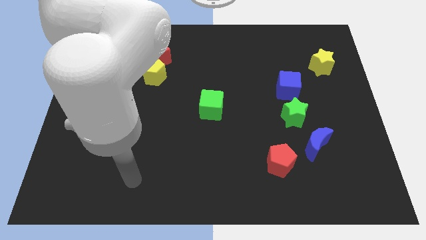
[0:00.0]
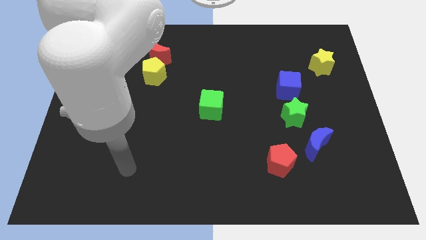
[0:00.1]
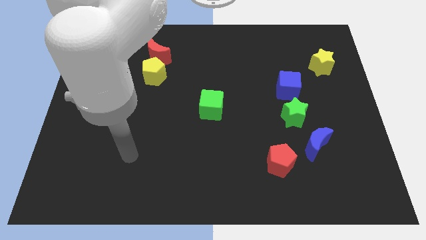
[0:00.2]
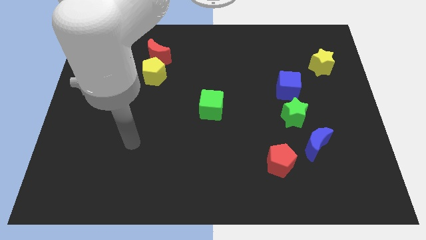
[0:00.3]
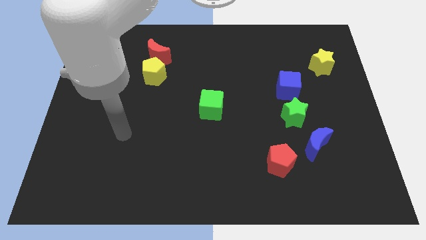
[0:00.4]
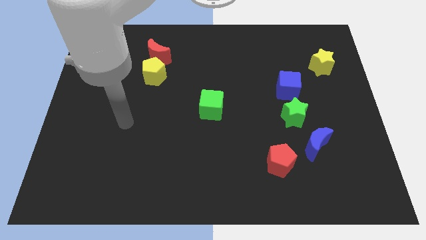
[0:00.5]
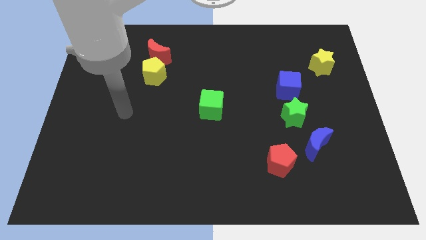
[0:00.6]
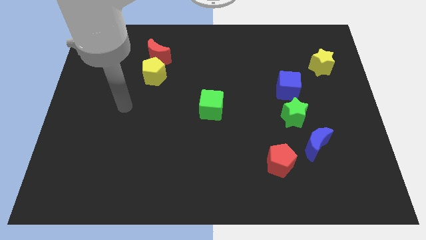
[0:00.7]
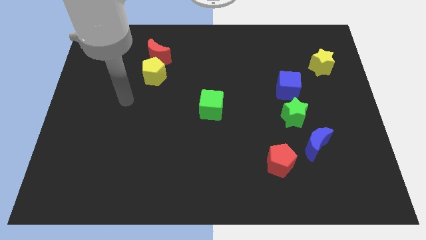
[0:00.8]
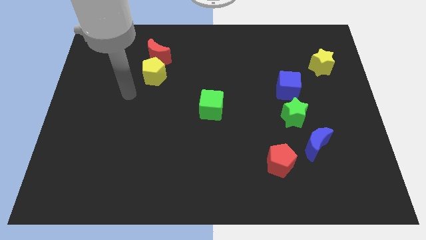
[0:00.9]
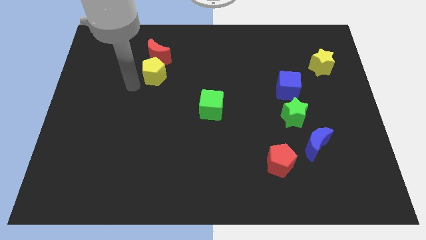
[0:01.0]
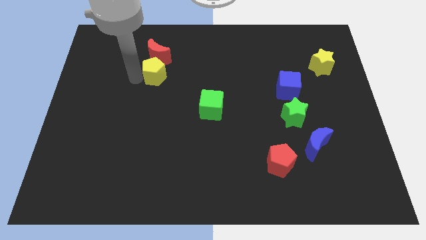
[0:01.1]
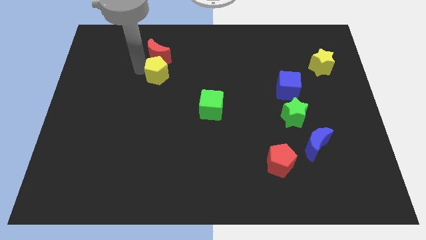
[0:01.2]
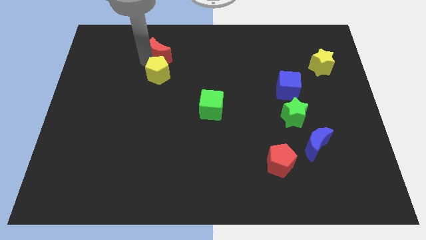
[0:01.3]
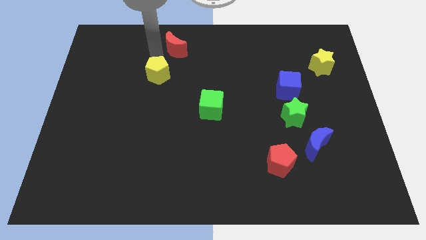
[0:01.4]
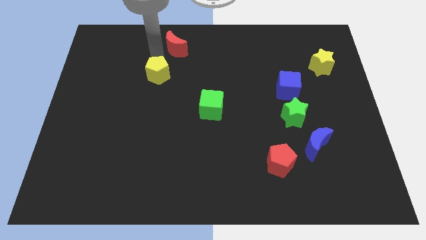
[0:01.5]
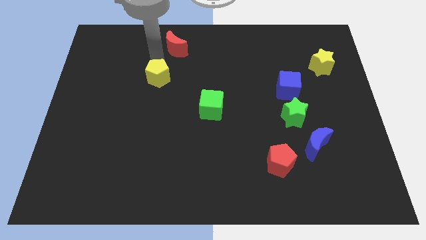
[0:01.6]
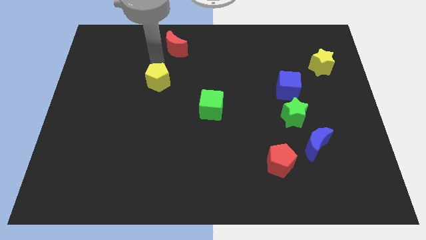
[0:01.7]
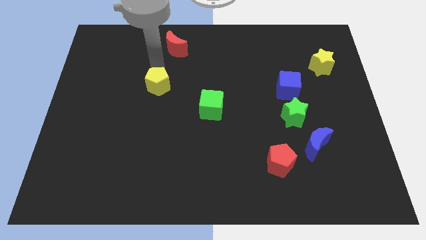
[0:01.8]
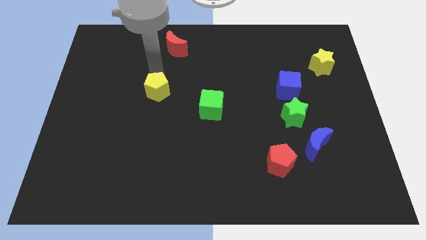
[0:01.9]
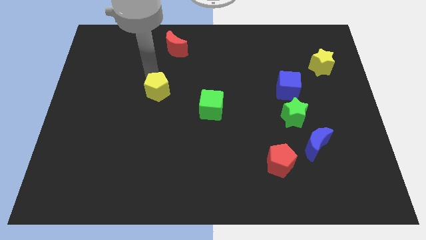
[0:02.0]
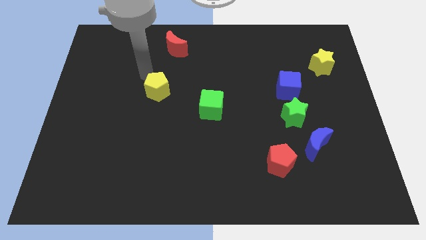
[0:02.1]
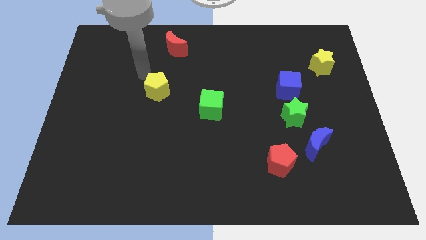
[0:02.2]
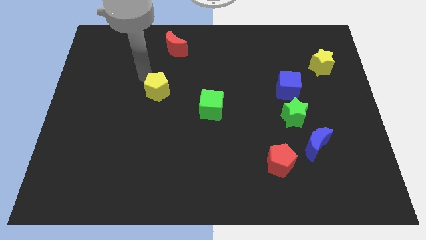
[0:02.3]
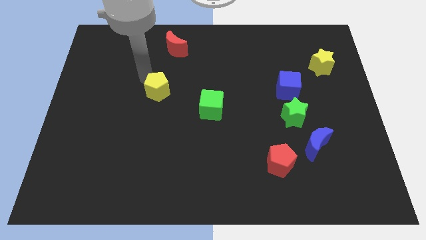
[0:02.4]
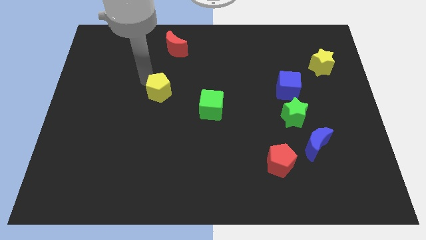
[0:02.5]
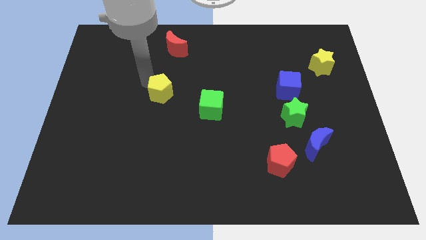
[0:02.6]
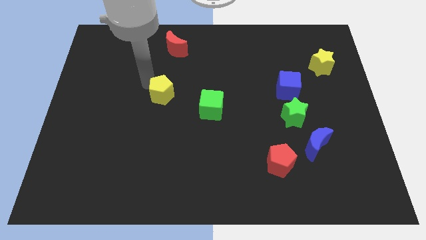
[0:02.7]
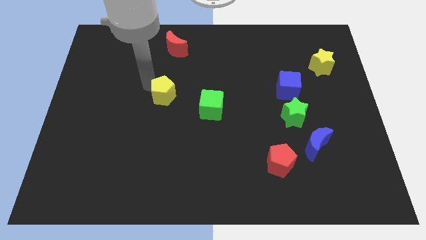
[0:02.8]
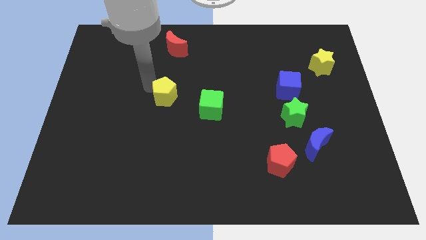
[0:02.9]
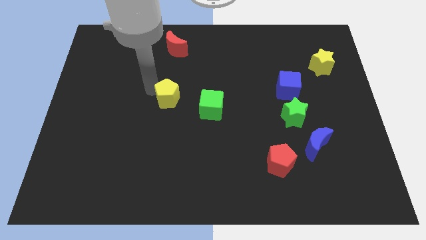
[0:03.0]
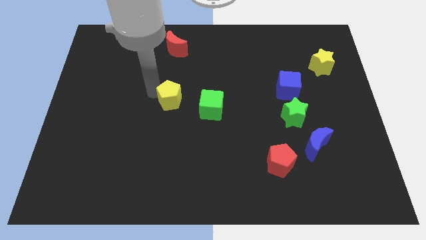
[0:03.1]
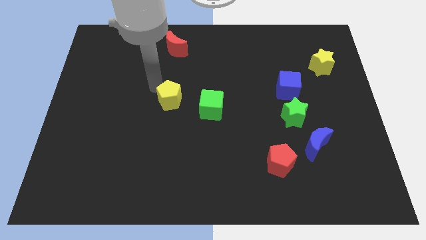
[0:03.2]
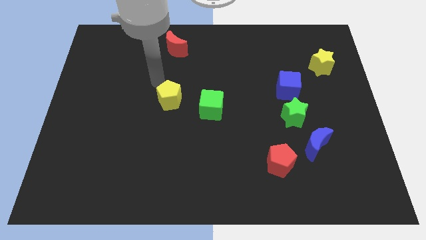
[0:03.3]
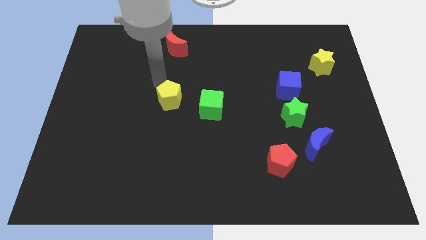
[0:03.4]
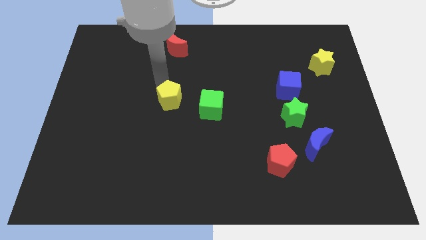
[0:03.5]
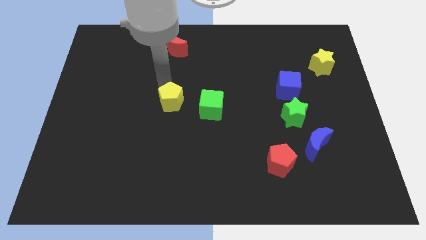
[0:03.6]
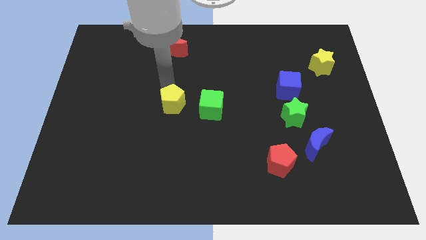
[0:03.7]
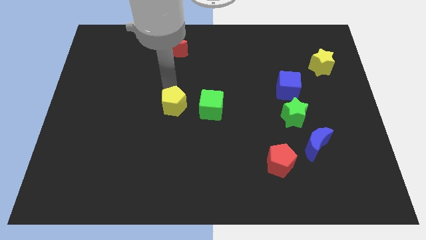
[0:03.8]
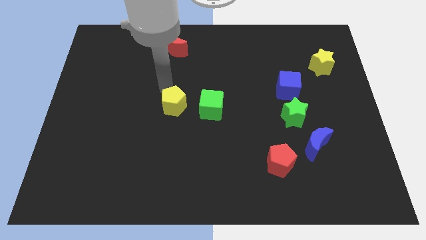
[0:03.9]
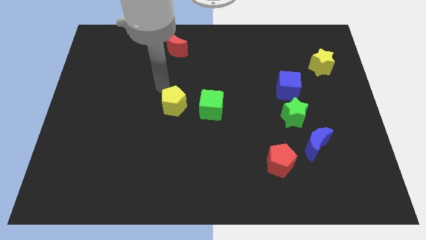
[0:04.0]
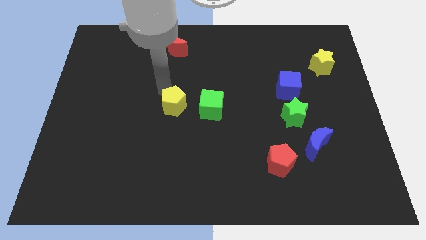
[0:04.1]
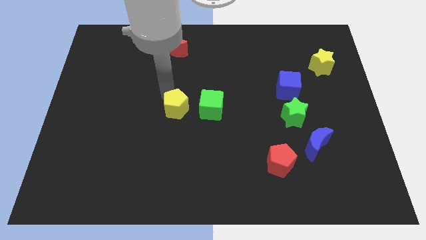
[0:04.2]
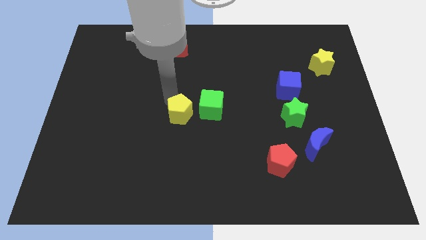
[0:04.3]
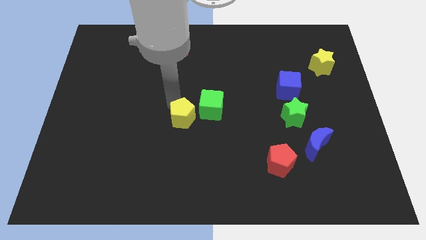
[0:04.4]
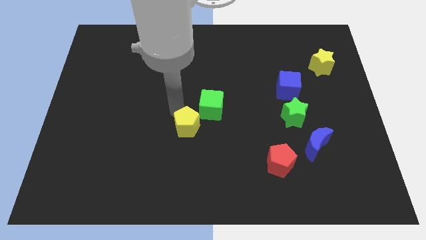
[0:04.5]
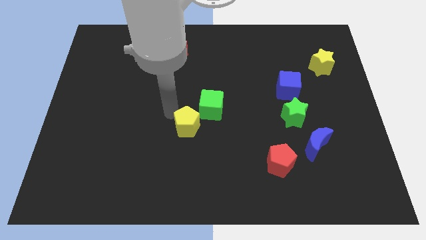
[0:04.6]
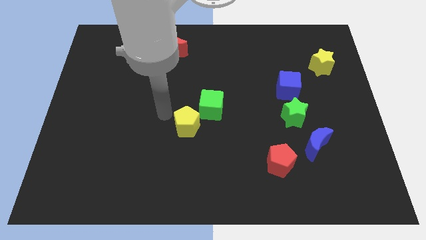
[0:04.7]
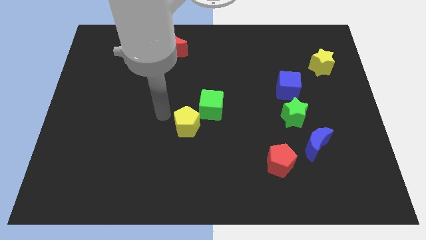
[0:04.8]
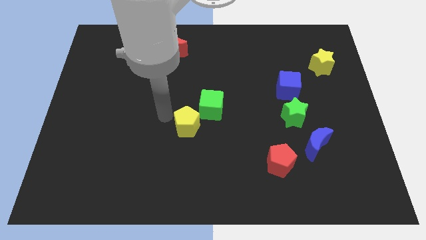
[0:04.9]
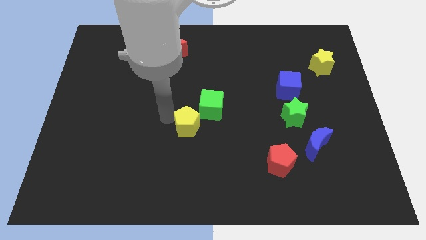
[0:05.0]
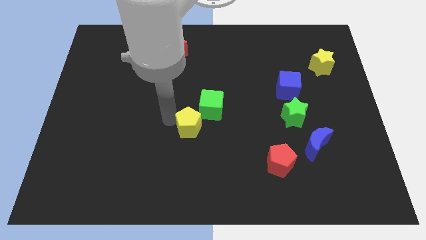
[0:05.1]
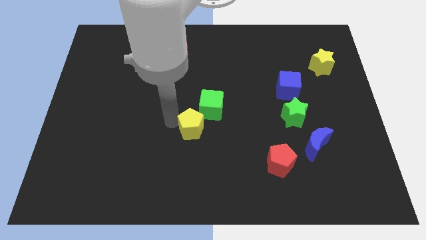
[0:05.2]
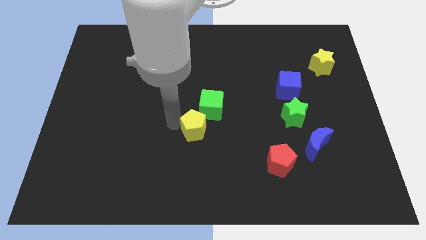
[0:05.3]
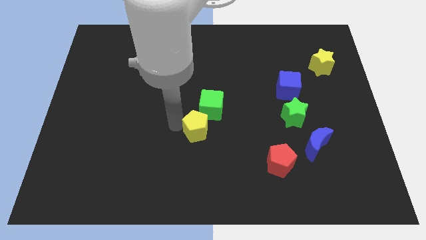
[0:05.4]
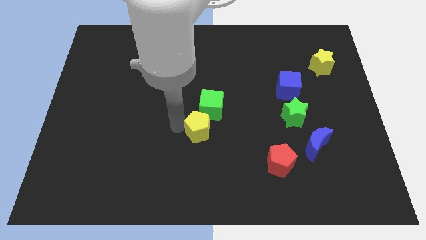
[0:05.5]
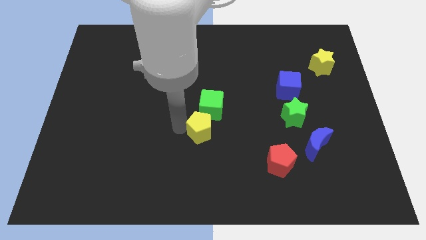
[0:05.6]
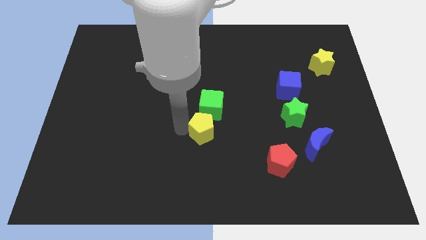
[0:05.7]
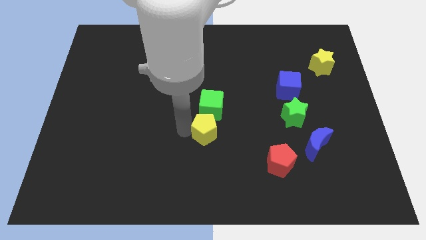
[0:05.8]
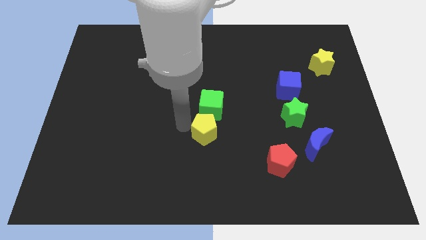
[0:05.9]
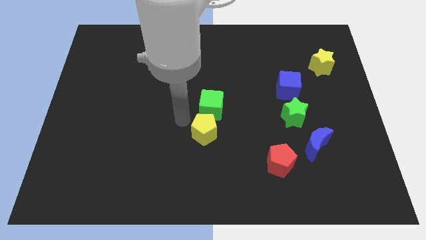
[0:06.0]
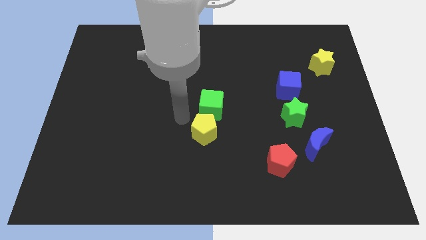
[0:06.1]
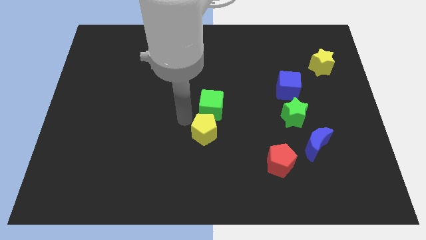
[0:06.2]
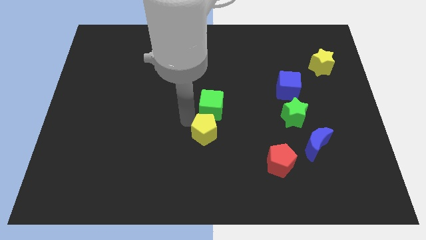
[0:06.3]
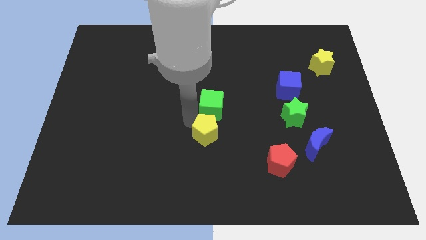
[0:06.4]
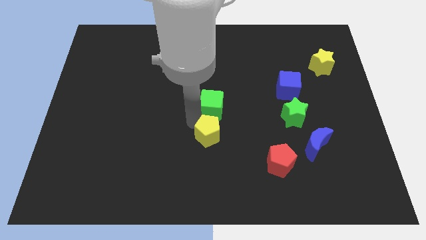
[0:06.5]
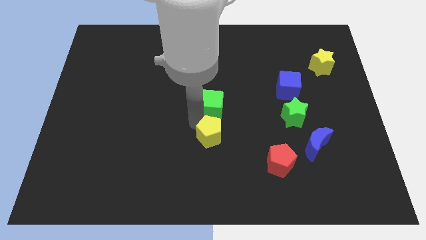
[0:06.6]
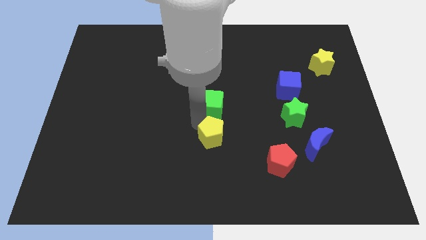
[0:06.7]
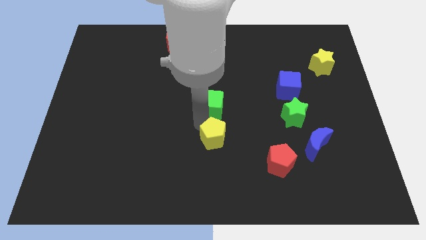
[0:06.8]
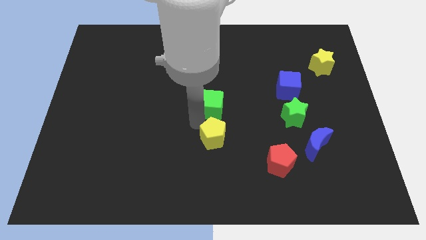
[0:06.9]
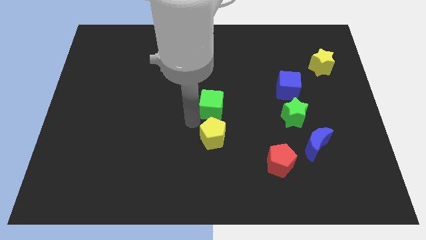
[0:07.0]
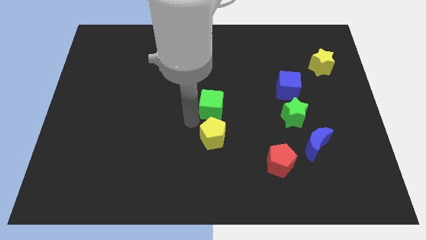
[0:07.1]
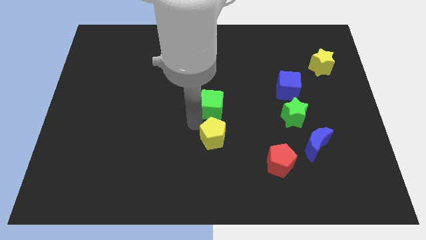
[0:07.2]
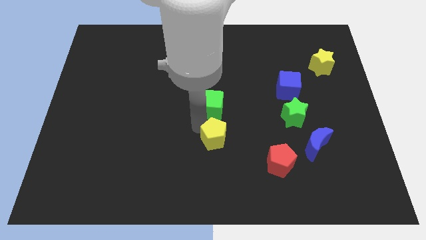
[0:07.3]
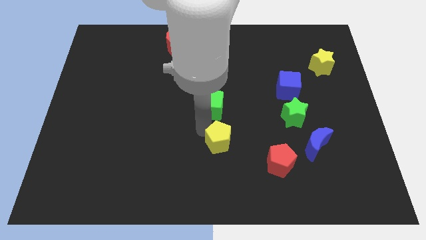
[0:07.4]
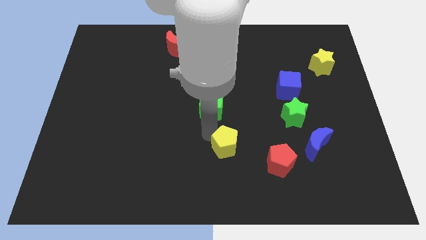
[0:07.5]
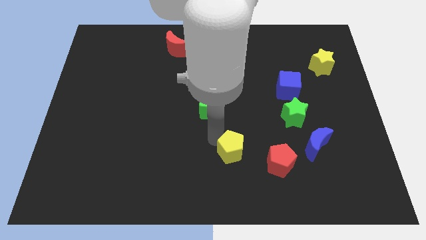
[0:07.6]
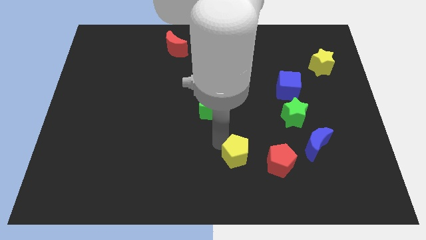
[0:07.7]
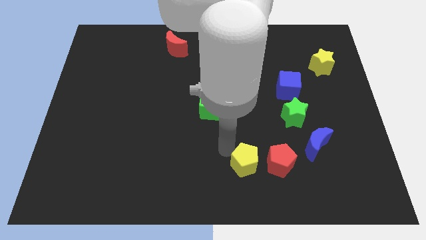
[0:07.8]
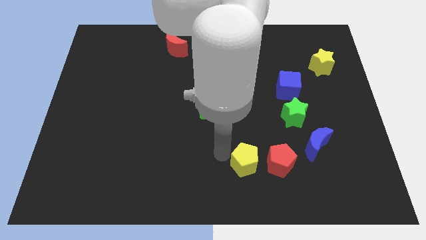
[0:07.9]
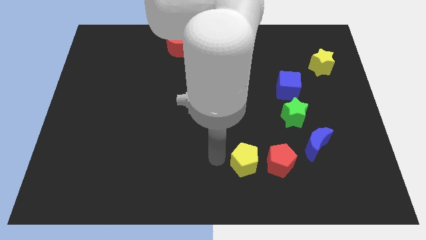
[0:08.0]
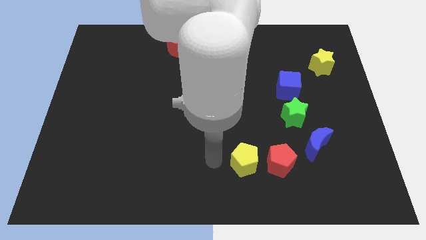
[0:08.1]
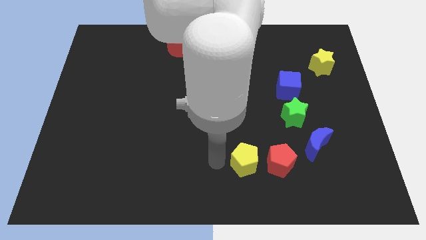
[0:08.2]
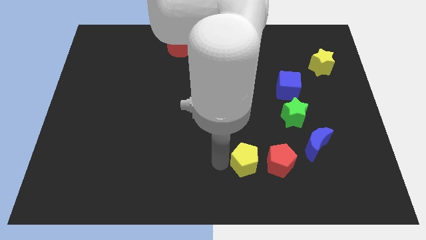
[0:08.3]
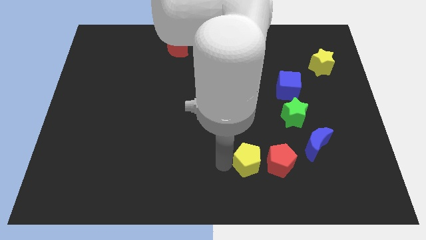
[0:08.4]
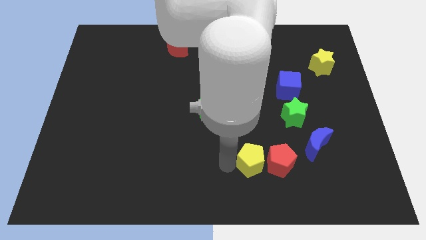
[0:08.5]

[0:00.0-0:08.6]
push the yellow pentagon towards the red pentagon
